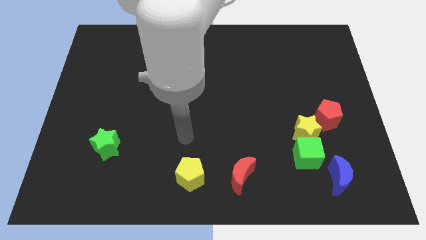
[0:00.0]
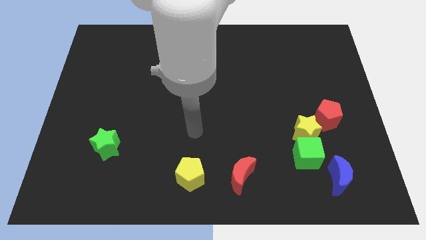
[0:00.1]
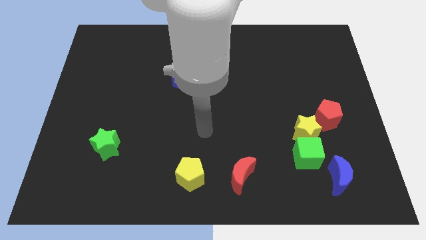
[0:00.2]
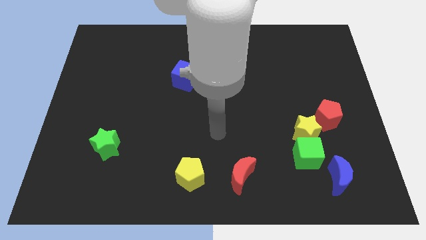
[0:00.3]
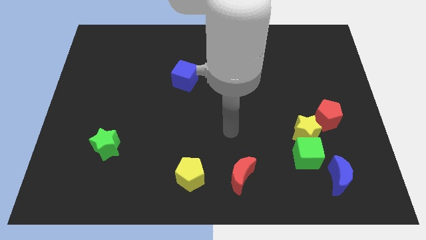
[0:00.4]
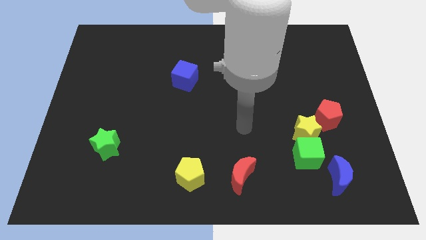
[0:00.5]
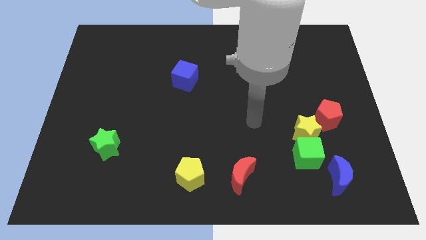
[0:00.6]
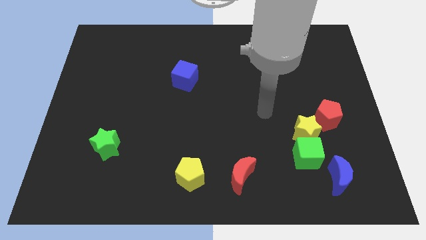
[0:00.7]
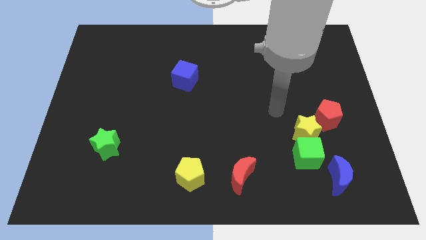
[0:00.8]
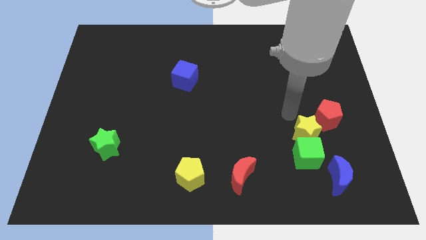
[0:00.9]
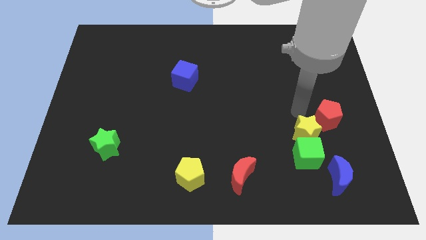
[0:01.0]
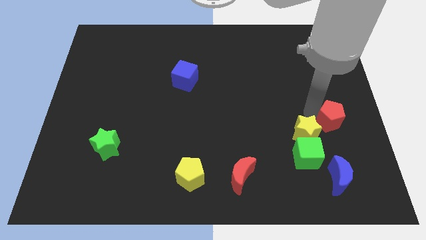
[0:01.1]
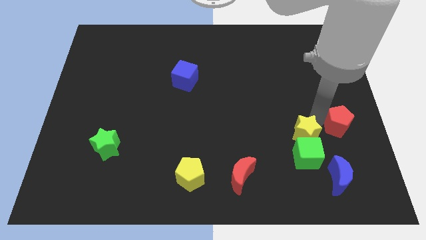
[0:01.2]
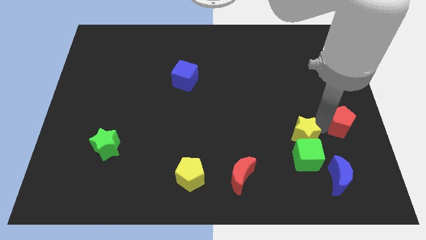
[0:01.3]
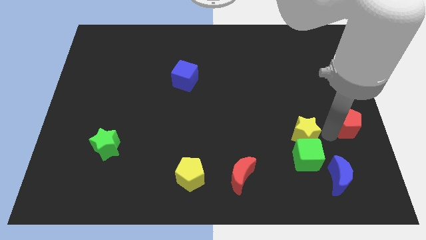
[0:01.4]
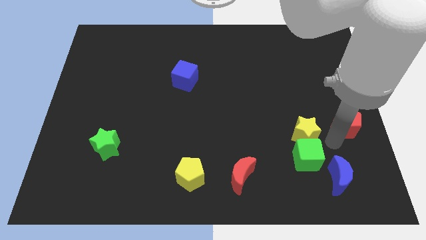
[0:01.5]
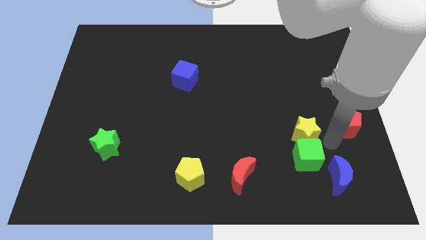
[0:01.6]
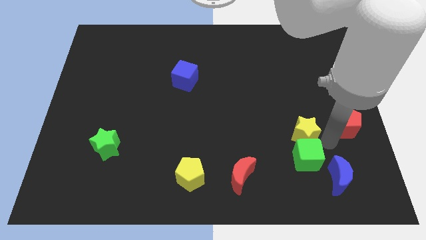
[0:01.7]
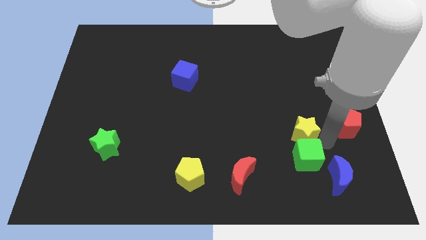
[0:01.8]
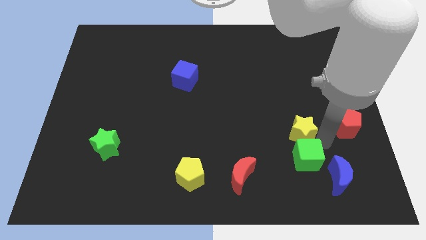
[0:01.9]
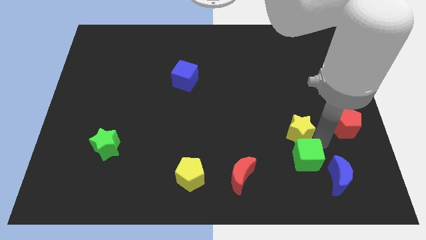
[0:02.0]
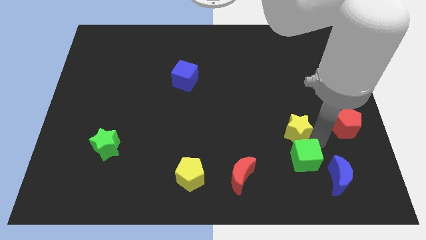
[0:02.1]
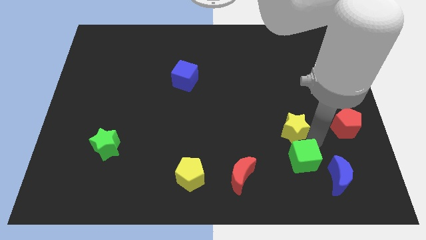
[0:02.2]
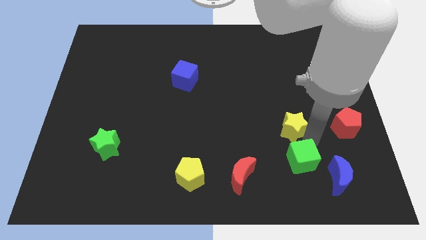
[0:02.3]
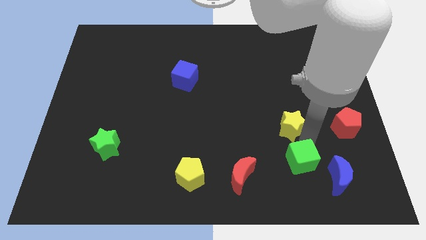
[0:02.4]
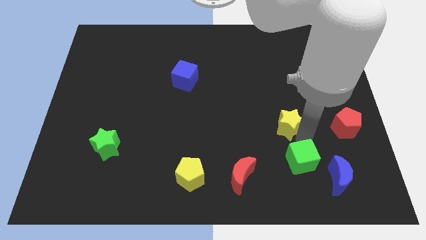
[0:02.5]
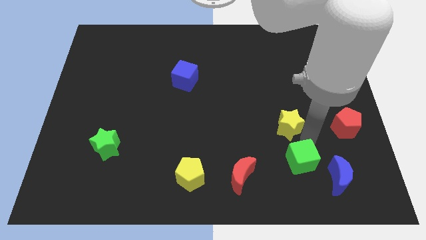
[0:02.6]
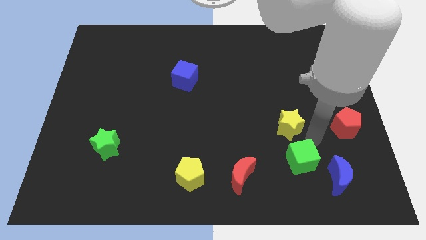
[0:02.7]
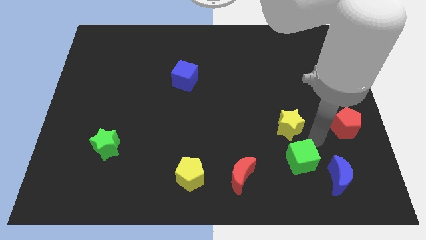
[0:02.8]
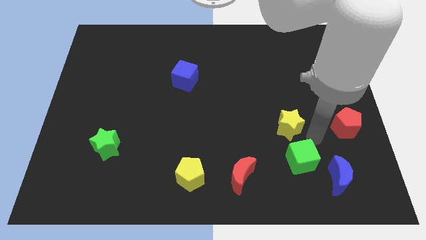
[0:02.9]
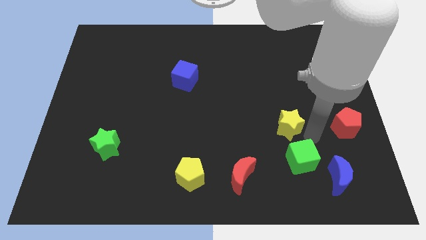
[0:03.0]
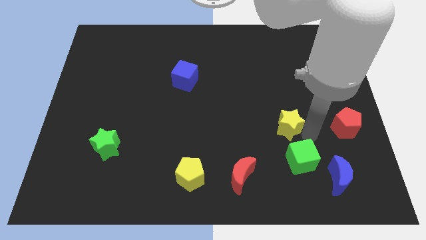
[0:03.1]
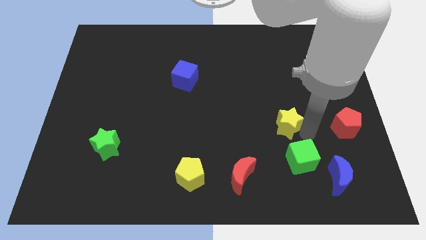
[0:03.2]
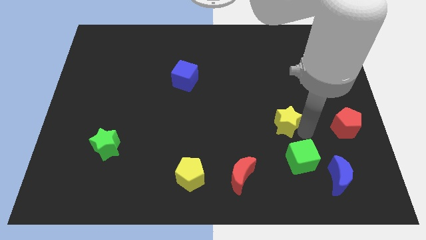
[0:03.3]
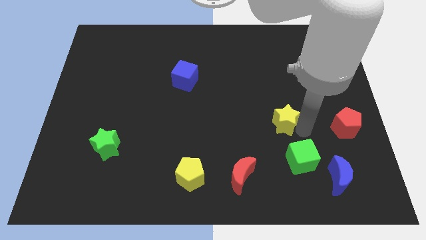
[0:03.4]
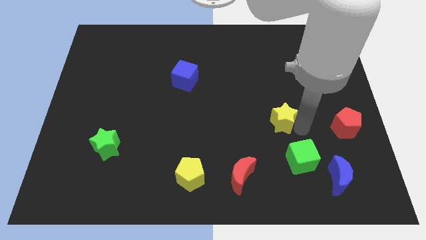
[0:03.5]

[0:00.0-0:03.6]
move the yellow star away from the green cube and red pentagon

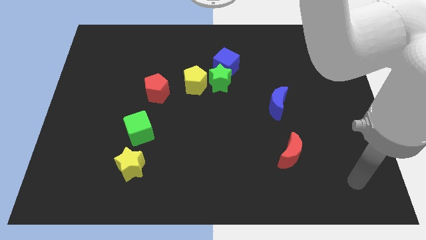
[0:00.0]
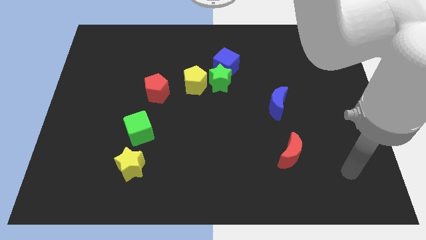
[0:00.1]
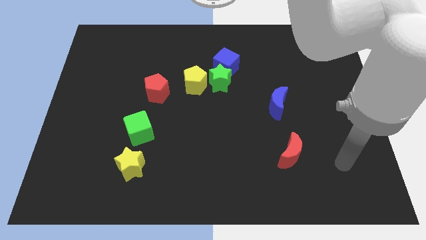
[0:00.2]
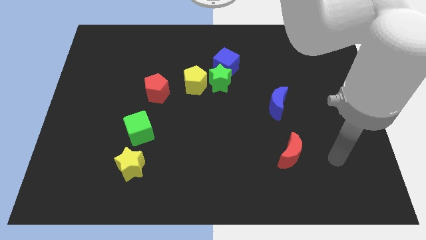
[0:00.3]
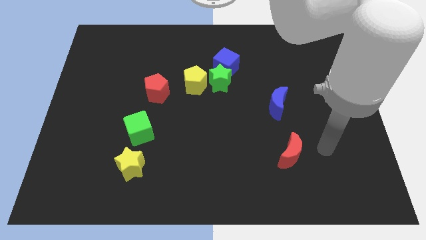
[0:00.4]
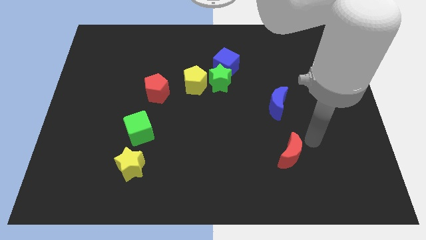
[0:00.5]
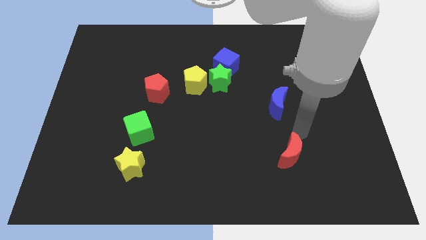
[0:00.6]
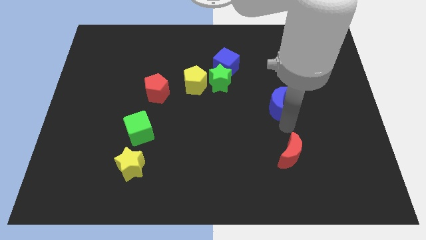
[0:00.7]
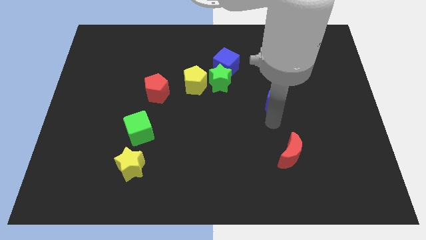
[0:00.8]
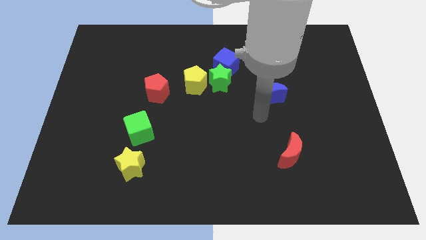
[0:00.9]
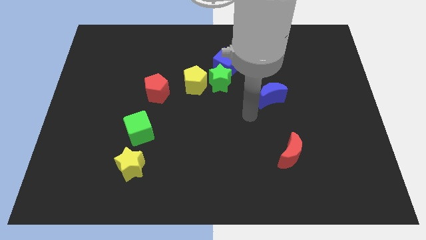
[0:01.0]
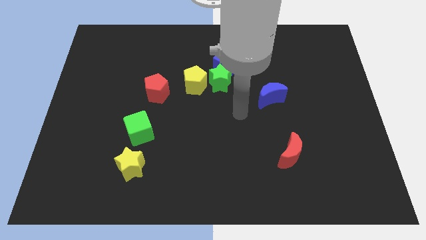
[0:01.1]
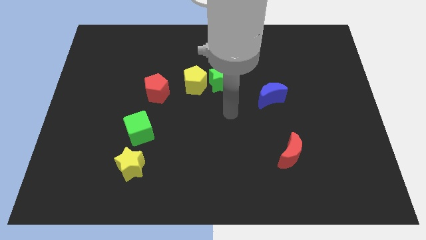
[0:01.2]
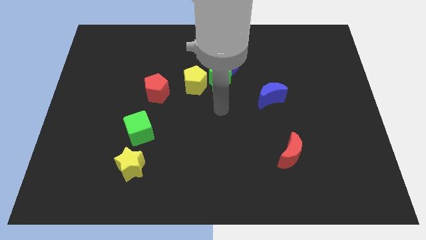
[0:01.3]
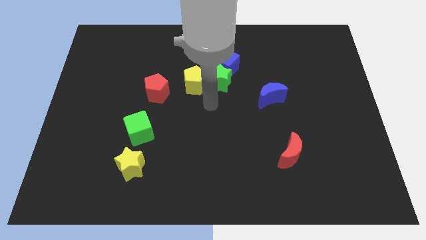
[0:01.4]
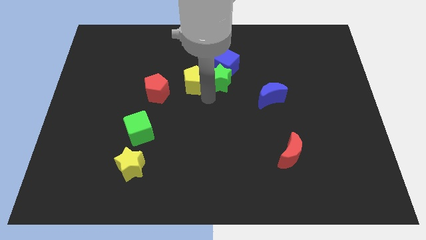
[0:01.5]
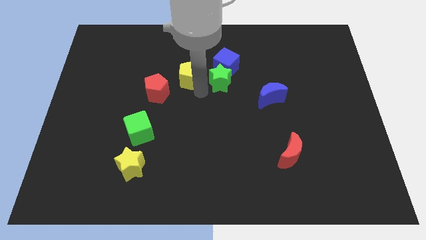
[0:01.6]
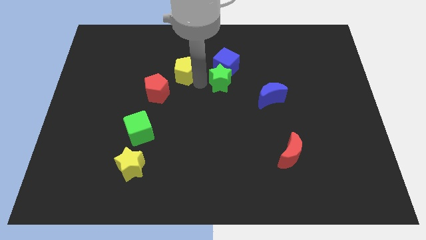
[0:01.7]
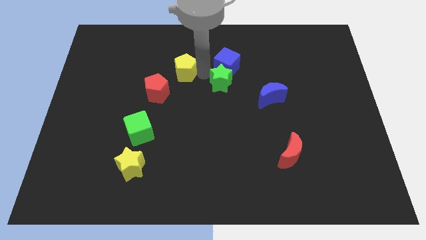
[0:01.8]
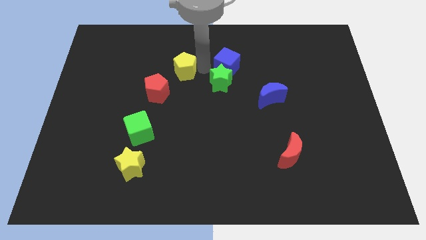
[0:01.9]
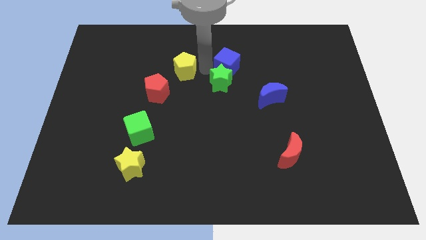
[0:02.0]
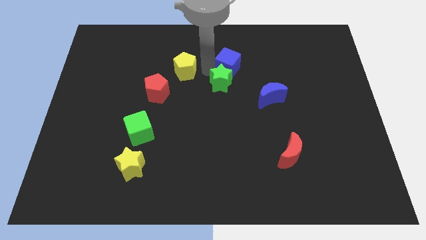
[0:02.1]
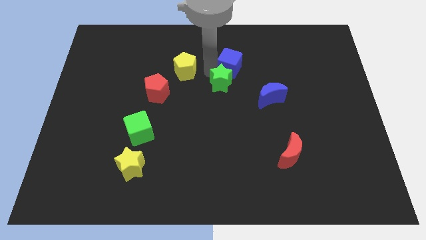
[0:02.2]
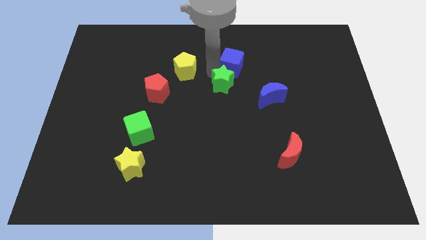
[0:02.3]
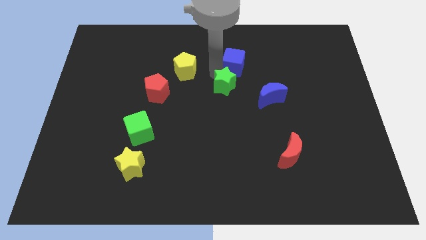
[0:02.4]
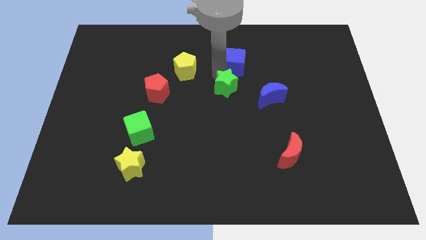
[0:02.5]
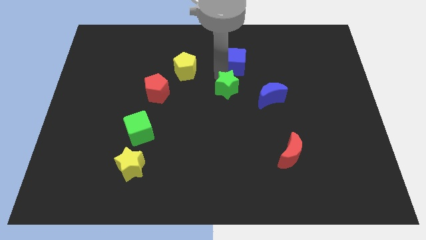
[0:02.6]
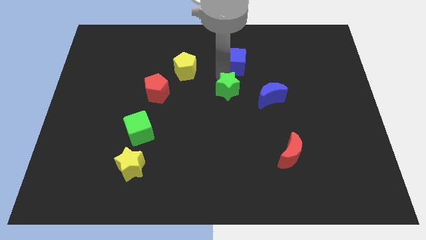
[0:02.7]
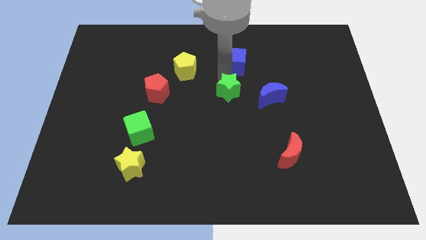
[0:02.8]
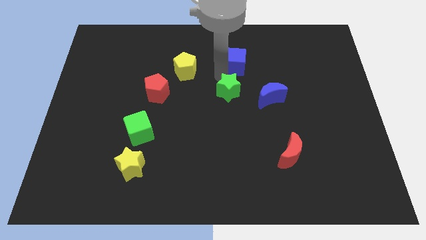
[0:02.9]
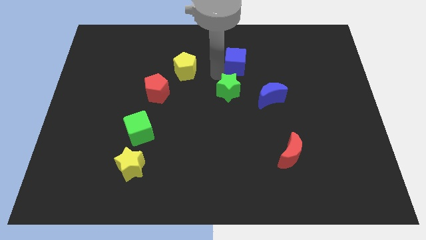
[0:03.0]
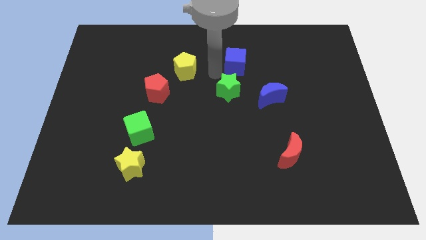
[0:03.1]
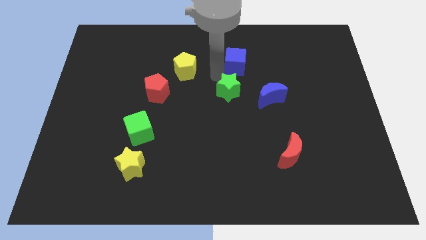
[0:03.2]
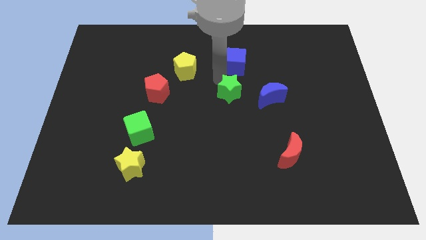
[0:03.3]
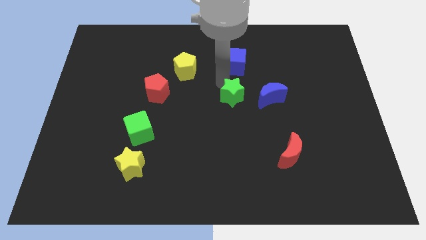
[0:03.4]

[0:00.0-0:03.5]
separate the green star from the blue cube and yellow pentagon

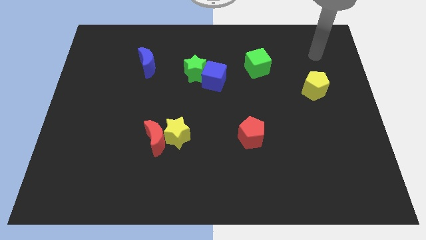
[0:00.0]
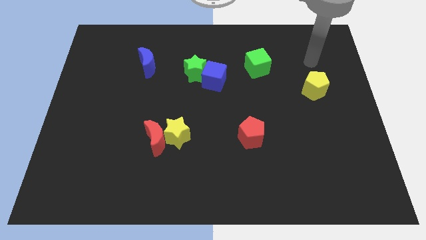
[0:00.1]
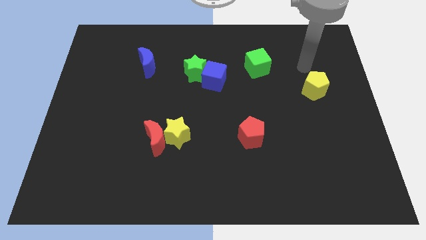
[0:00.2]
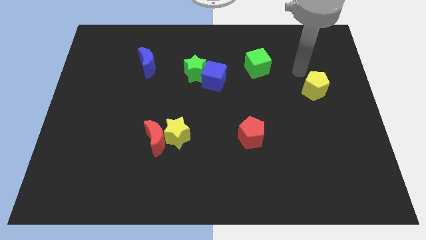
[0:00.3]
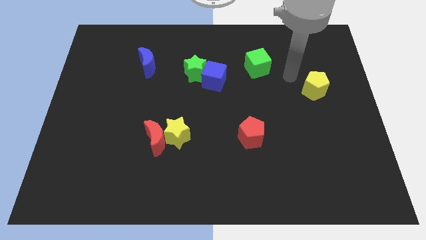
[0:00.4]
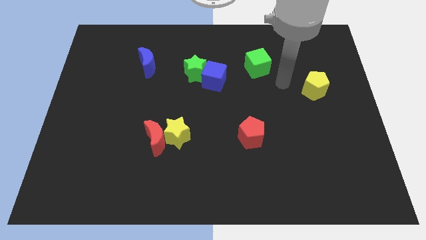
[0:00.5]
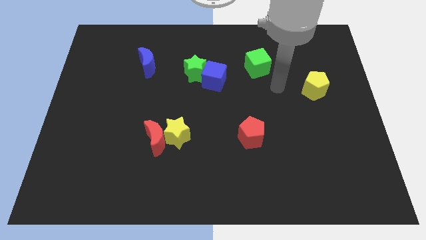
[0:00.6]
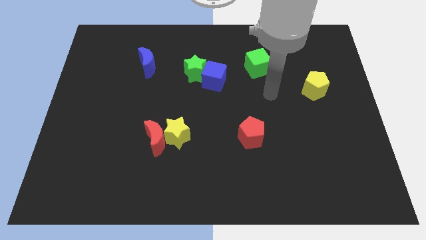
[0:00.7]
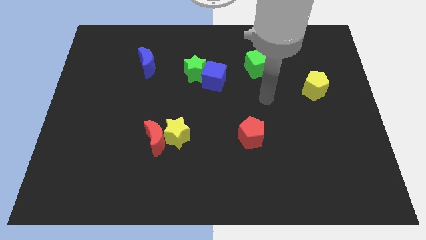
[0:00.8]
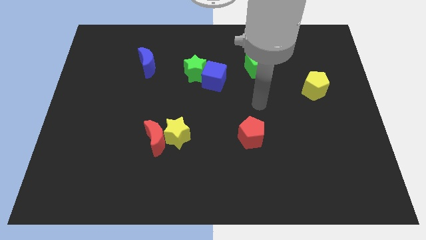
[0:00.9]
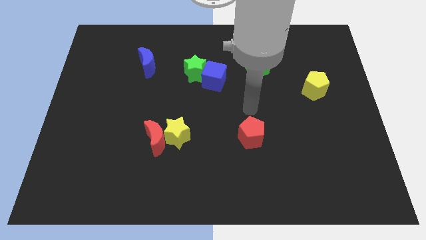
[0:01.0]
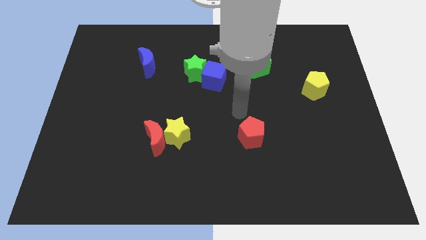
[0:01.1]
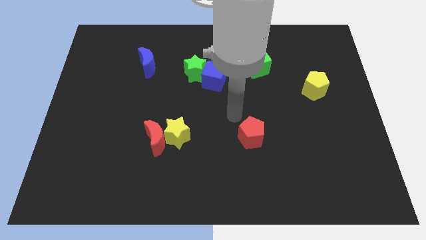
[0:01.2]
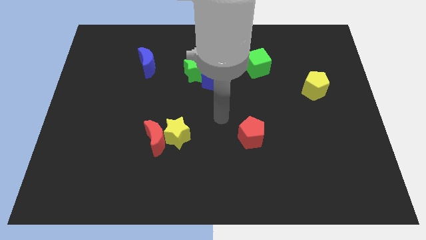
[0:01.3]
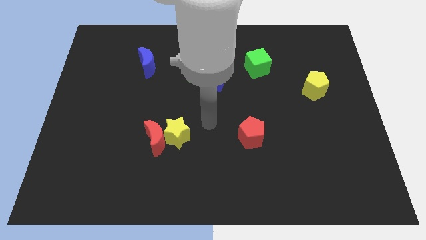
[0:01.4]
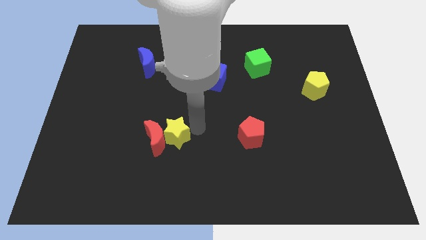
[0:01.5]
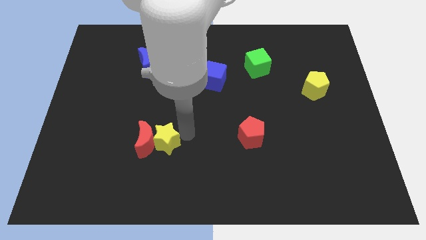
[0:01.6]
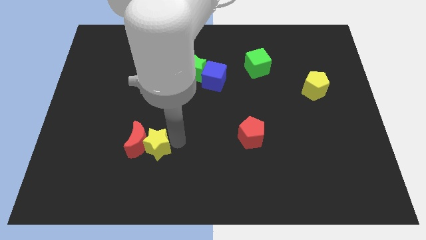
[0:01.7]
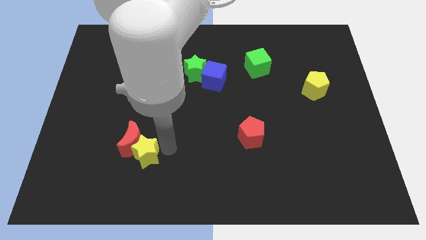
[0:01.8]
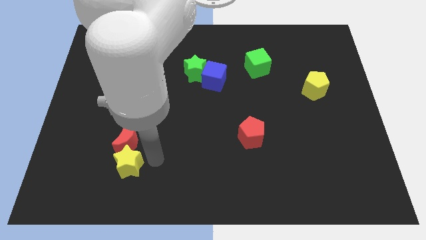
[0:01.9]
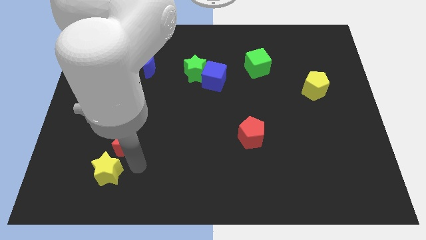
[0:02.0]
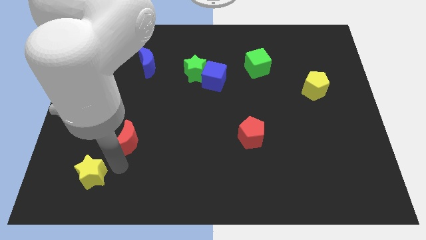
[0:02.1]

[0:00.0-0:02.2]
separate the red moon from the yellow star
